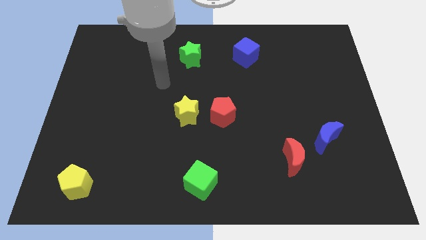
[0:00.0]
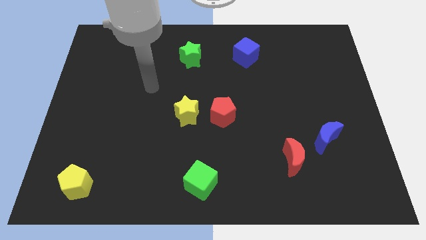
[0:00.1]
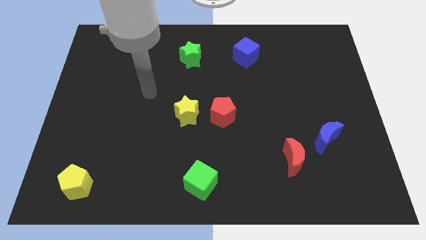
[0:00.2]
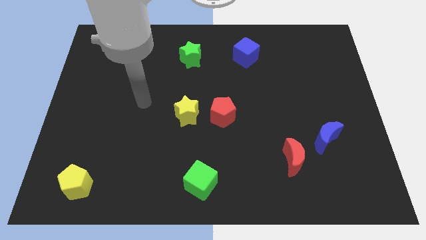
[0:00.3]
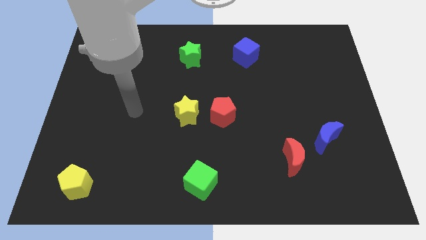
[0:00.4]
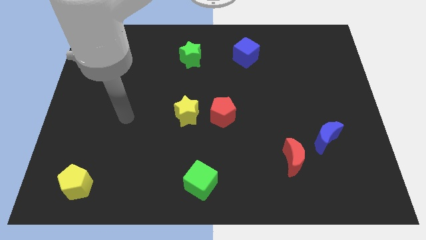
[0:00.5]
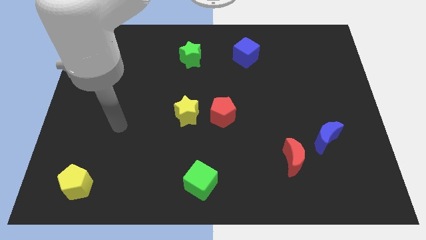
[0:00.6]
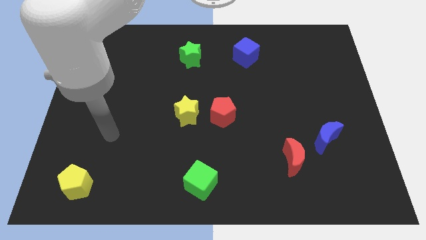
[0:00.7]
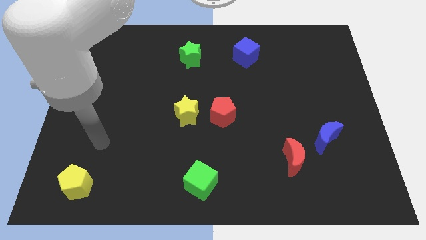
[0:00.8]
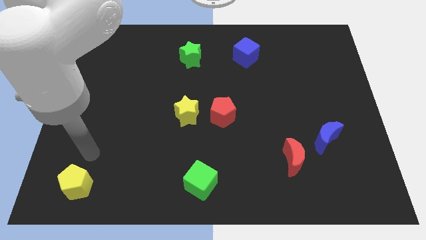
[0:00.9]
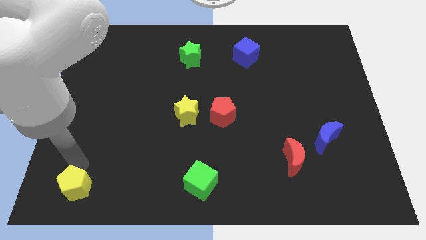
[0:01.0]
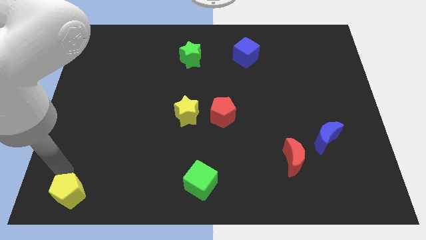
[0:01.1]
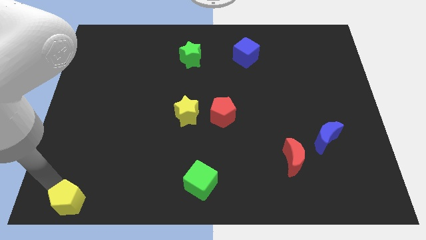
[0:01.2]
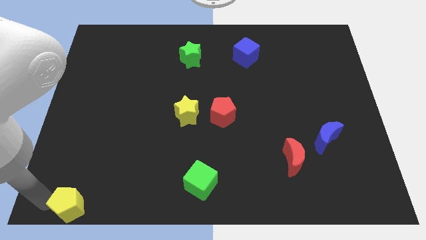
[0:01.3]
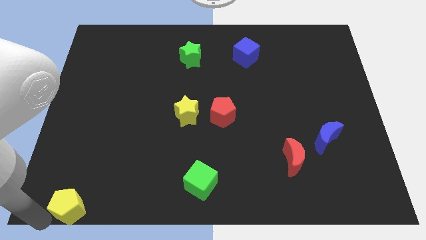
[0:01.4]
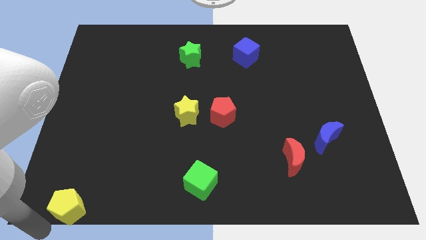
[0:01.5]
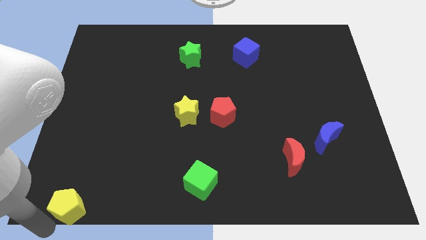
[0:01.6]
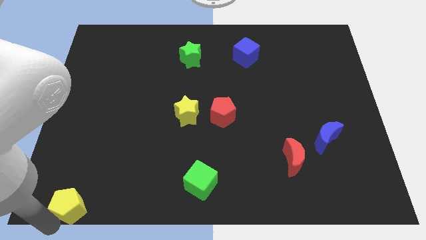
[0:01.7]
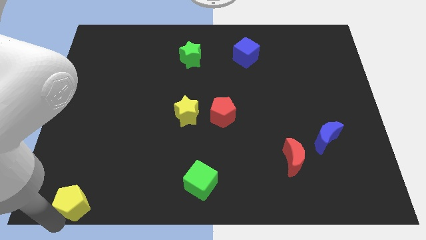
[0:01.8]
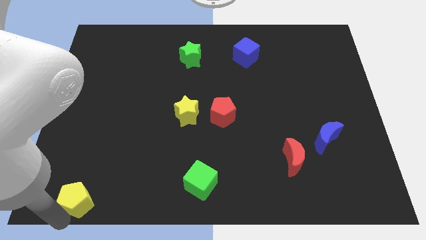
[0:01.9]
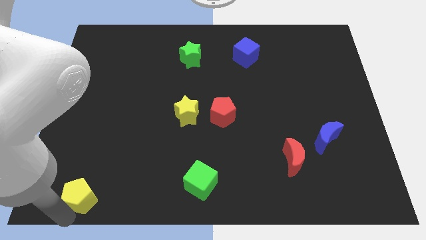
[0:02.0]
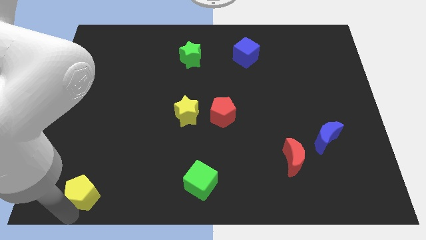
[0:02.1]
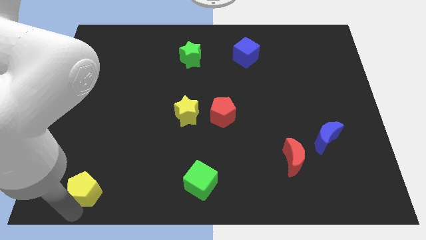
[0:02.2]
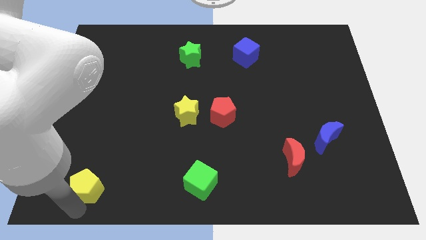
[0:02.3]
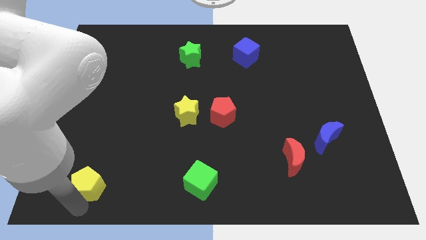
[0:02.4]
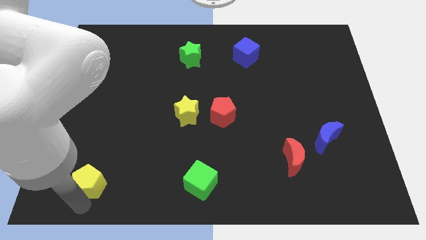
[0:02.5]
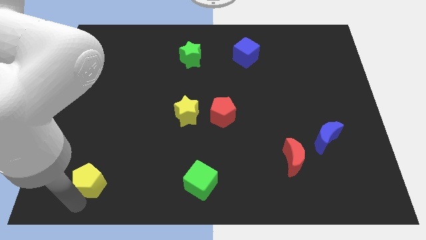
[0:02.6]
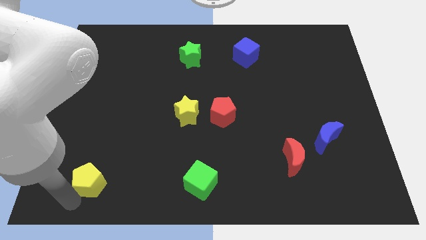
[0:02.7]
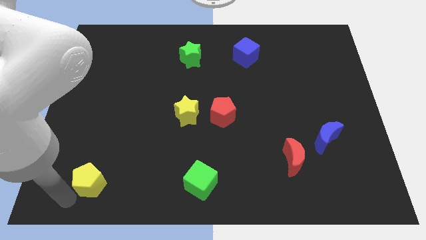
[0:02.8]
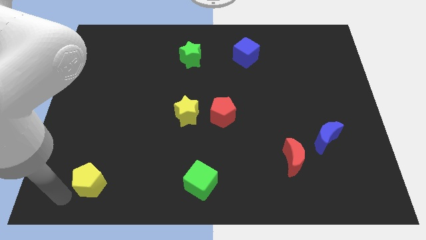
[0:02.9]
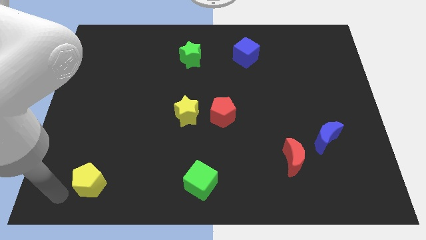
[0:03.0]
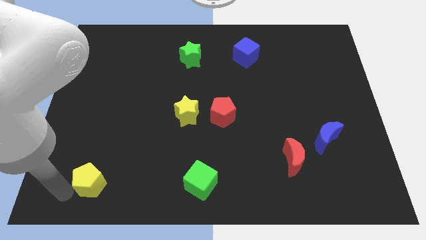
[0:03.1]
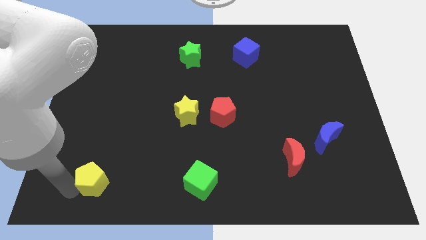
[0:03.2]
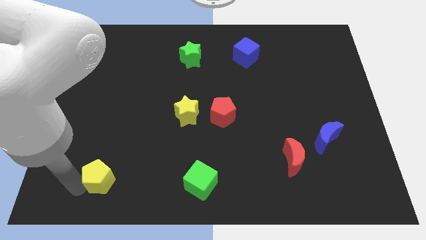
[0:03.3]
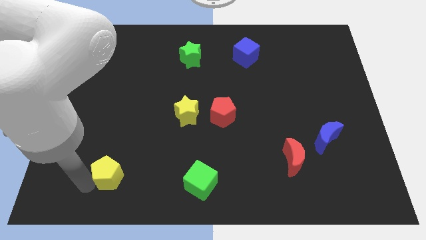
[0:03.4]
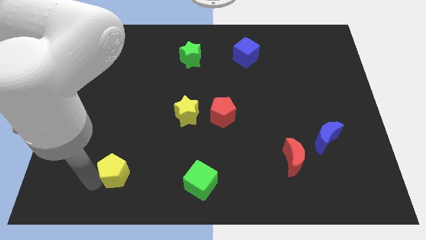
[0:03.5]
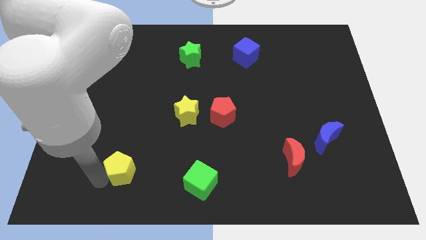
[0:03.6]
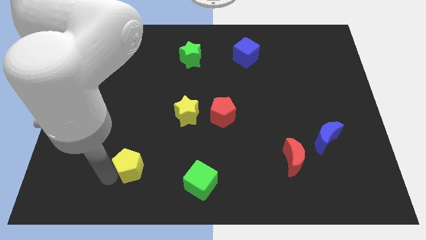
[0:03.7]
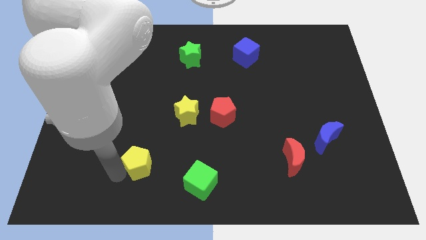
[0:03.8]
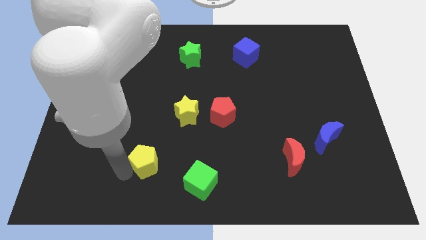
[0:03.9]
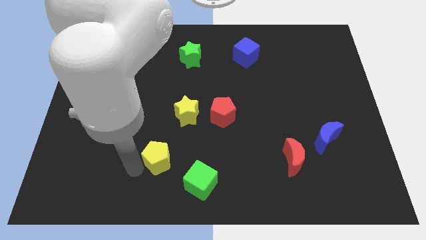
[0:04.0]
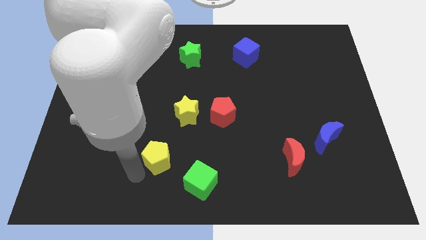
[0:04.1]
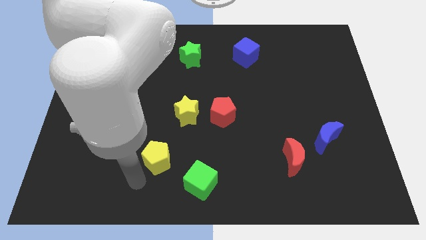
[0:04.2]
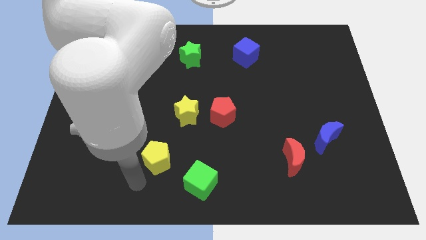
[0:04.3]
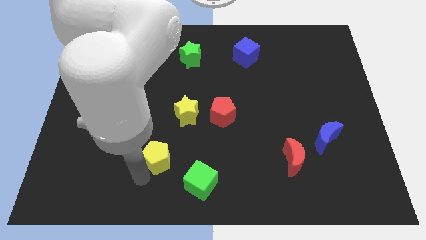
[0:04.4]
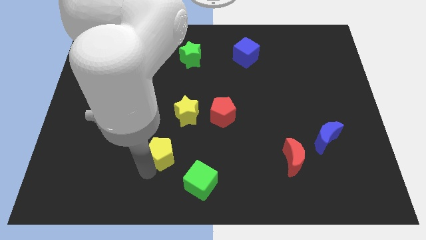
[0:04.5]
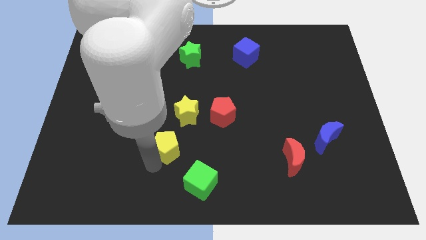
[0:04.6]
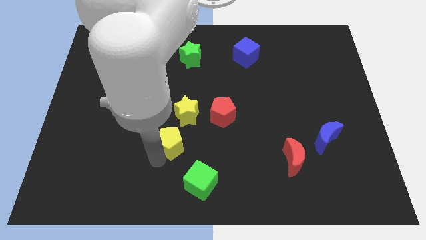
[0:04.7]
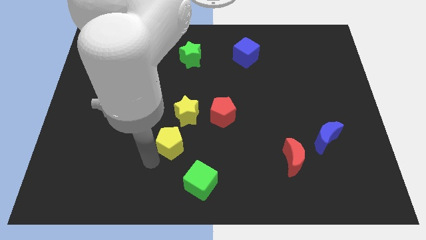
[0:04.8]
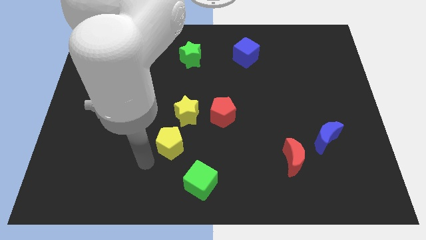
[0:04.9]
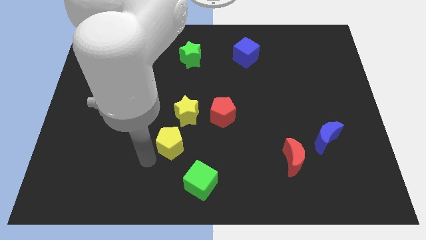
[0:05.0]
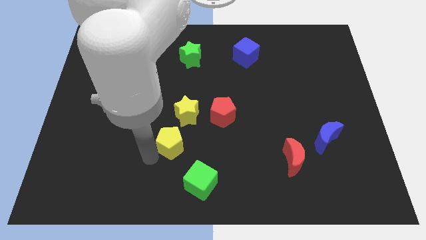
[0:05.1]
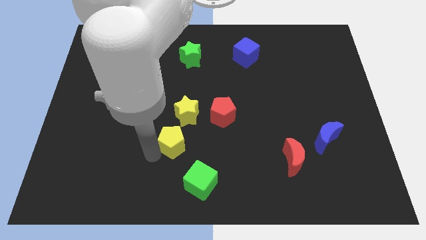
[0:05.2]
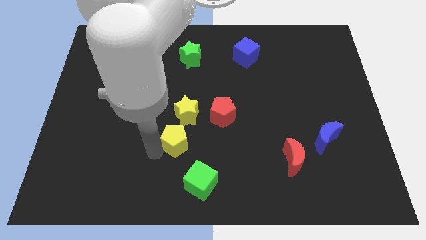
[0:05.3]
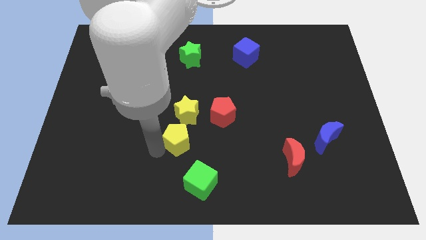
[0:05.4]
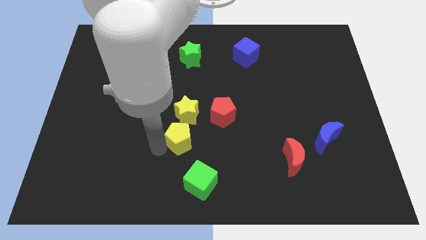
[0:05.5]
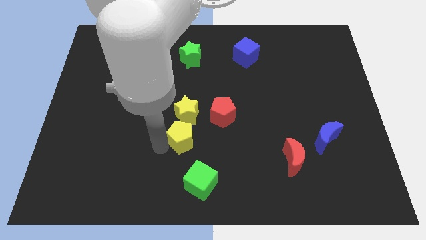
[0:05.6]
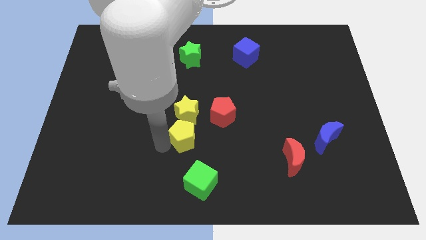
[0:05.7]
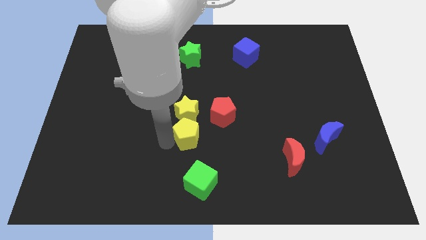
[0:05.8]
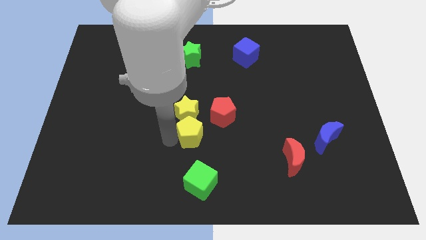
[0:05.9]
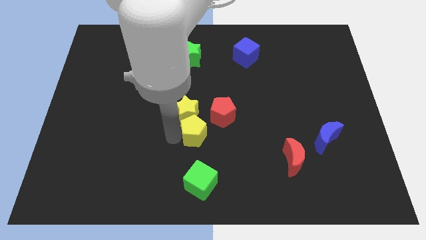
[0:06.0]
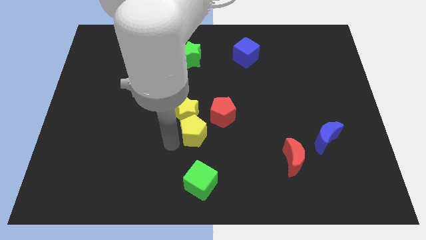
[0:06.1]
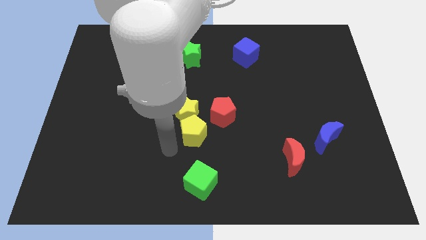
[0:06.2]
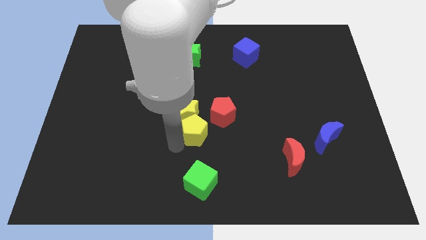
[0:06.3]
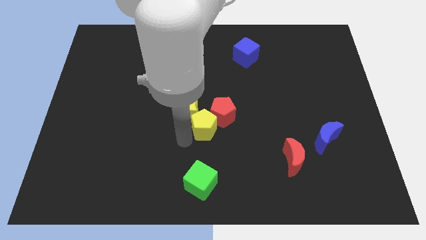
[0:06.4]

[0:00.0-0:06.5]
slide the yellow pentagon towards the red pentagon
